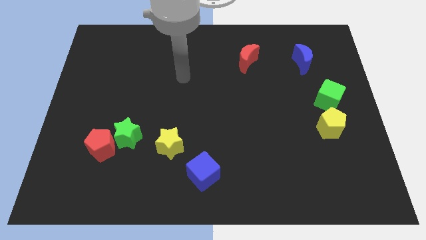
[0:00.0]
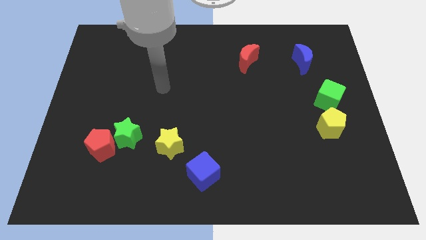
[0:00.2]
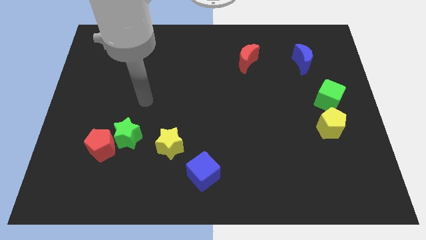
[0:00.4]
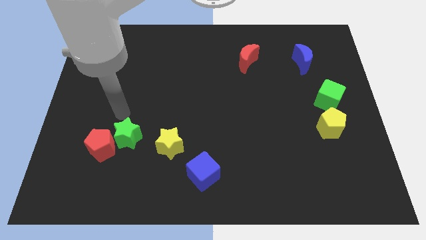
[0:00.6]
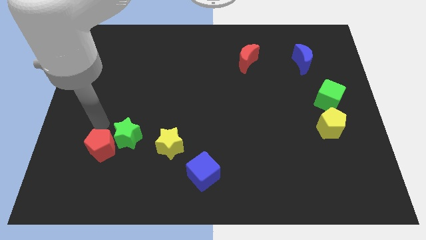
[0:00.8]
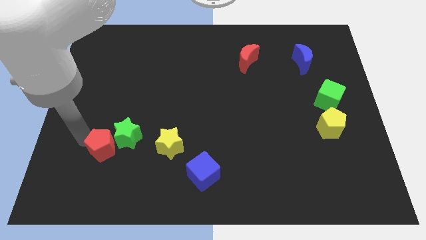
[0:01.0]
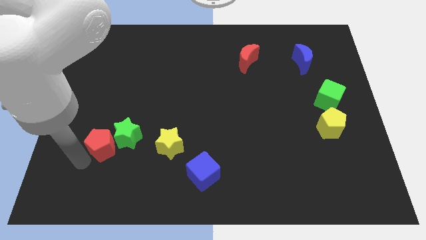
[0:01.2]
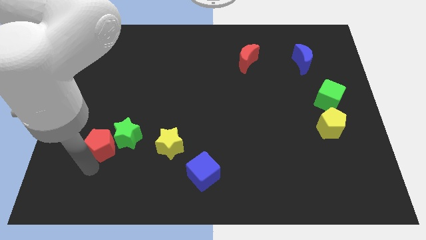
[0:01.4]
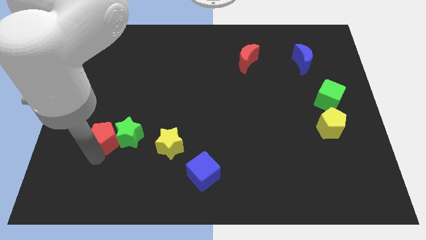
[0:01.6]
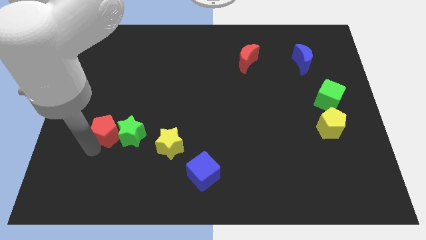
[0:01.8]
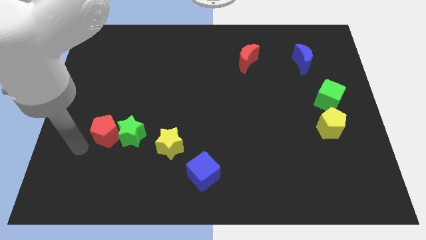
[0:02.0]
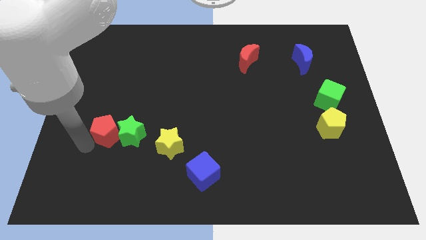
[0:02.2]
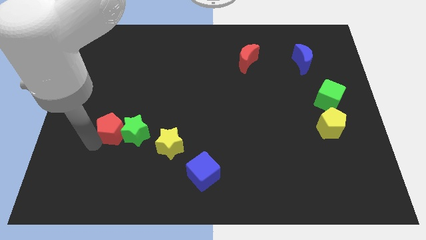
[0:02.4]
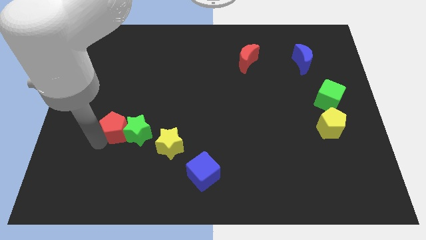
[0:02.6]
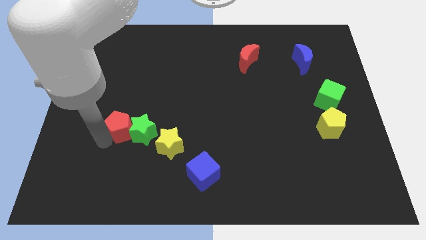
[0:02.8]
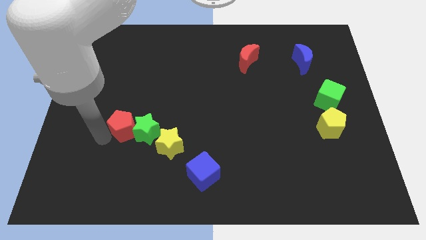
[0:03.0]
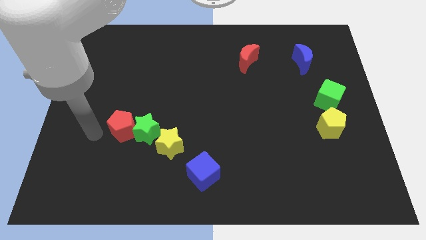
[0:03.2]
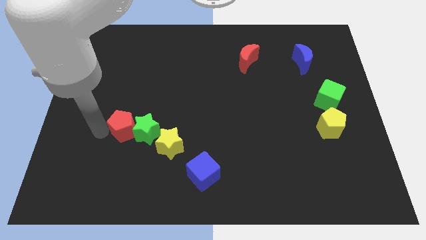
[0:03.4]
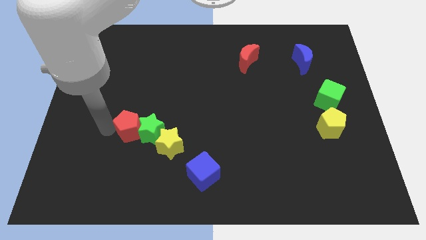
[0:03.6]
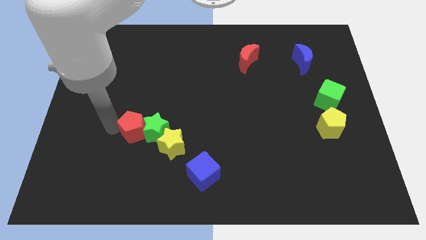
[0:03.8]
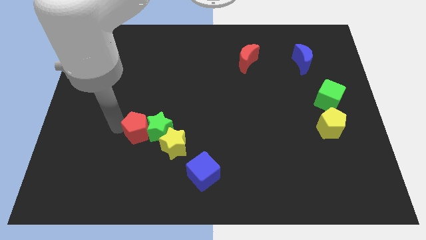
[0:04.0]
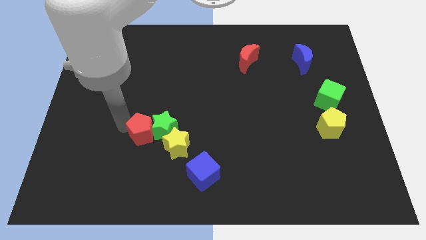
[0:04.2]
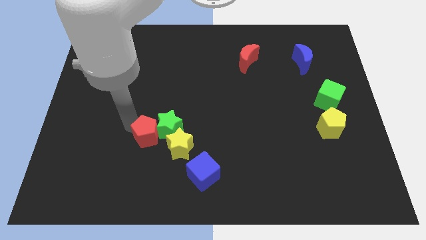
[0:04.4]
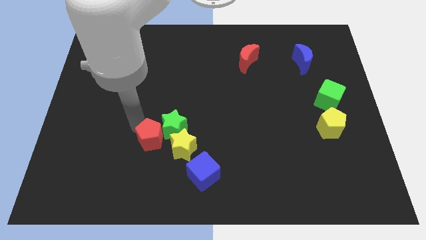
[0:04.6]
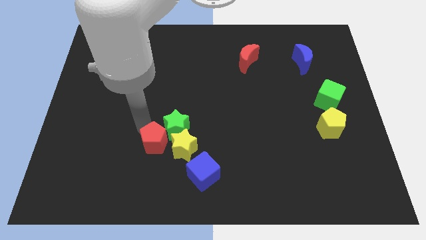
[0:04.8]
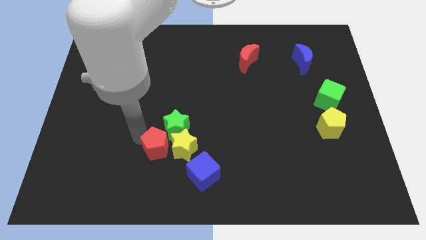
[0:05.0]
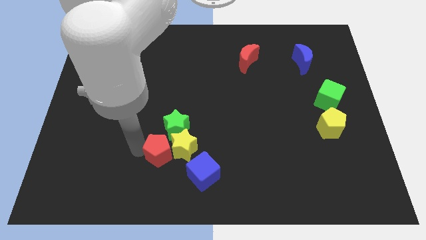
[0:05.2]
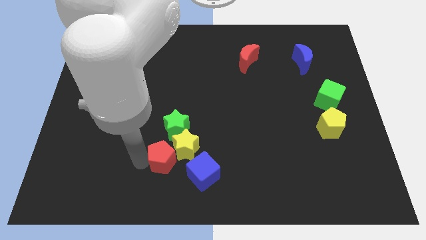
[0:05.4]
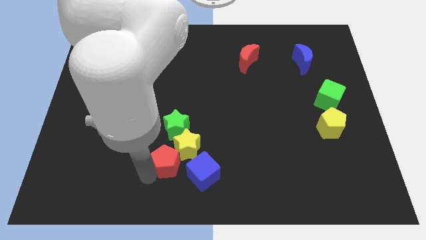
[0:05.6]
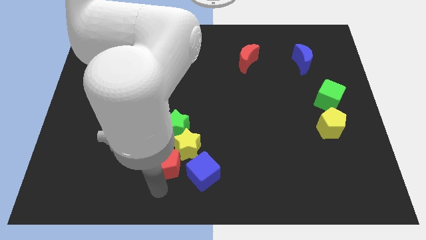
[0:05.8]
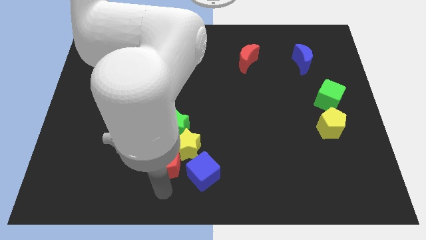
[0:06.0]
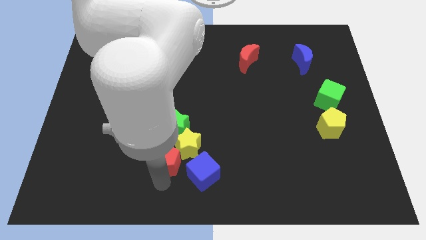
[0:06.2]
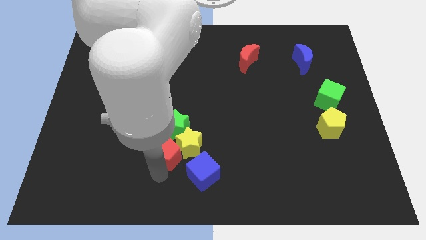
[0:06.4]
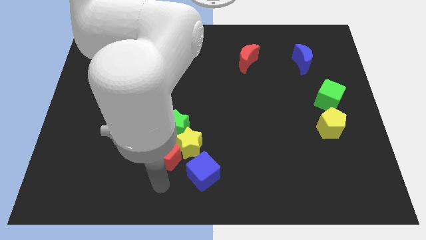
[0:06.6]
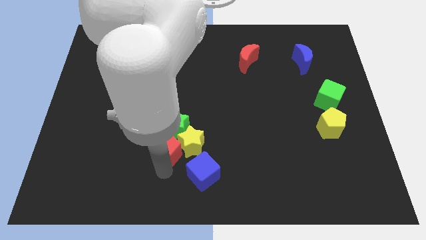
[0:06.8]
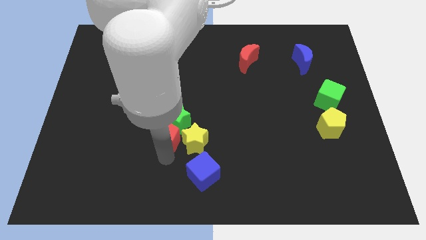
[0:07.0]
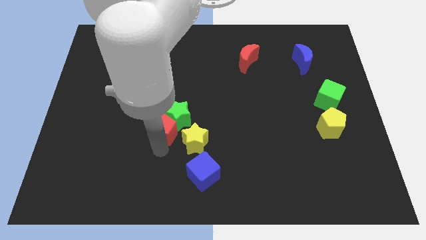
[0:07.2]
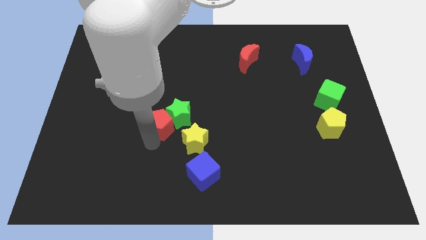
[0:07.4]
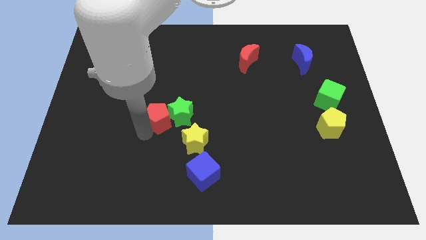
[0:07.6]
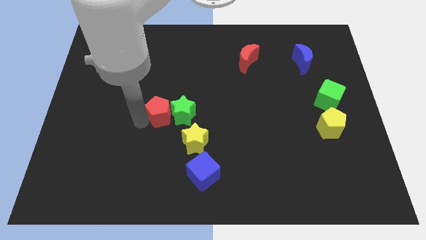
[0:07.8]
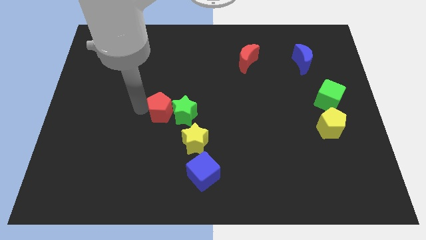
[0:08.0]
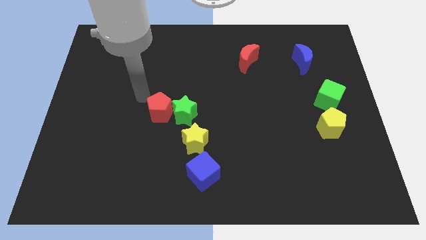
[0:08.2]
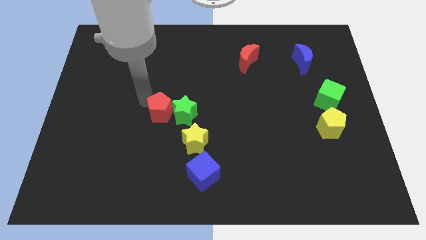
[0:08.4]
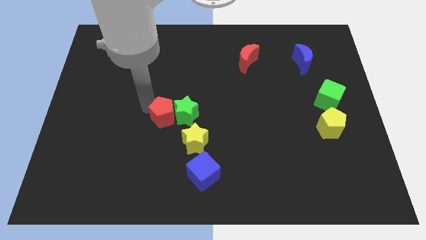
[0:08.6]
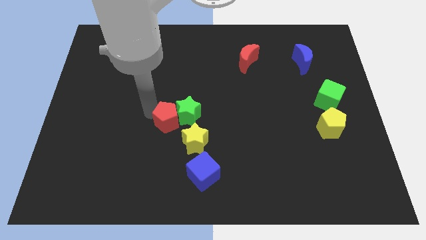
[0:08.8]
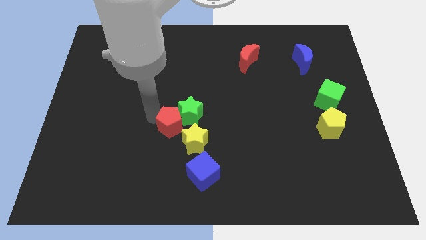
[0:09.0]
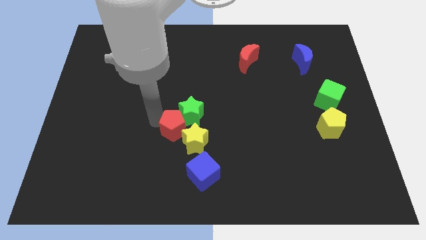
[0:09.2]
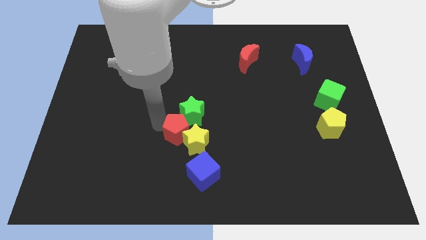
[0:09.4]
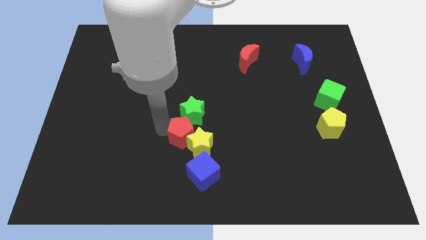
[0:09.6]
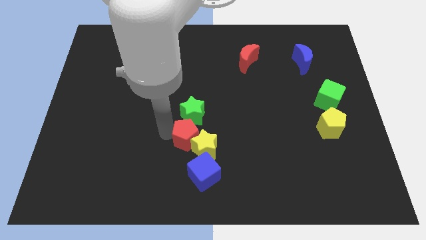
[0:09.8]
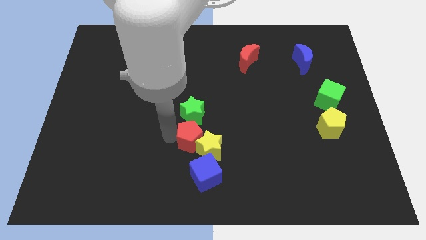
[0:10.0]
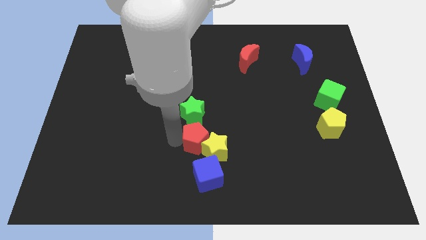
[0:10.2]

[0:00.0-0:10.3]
push the red pentagon to the right

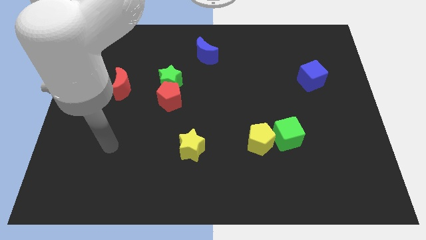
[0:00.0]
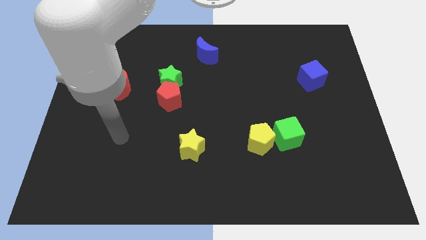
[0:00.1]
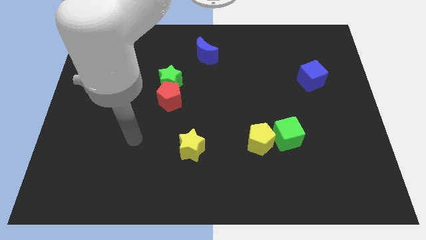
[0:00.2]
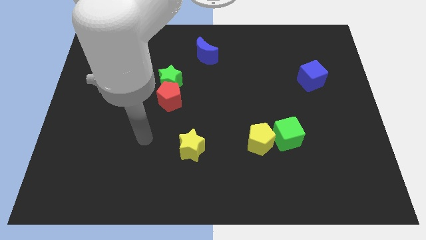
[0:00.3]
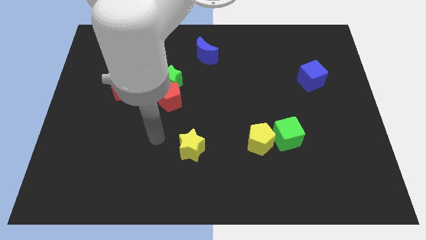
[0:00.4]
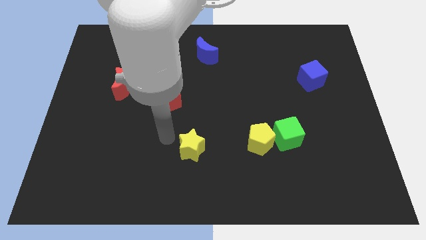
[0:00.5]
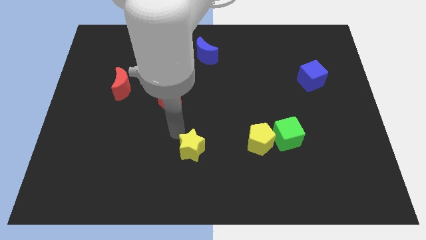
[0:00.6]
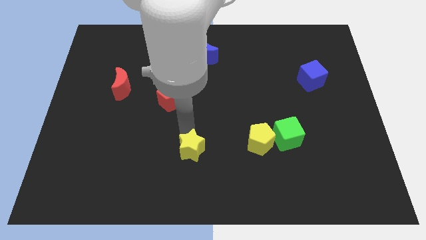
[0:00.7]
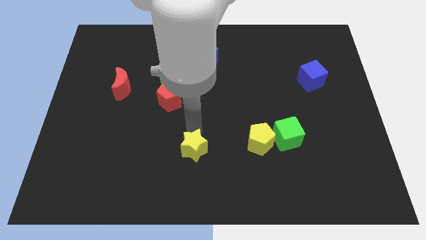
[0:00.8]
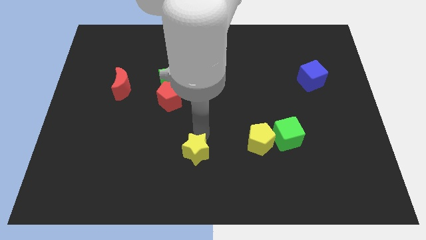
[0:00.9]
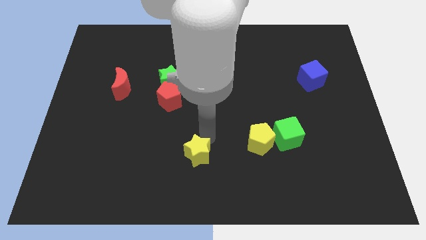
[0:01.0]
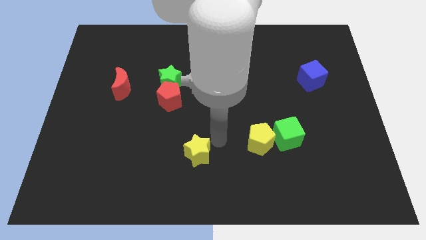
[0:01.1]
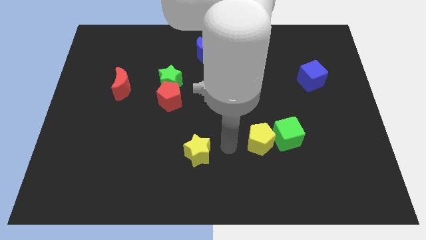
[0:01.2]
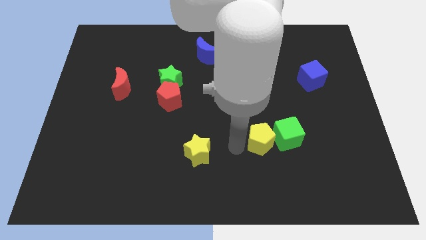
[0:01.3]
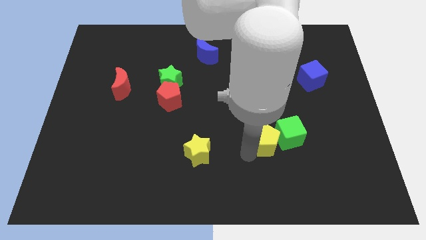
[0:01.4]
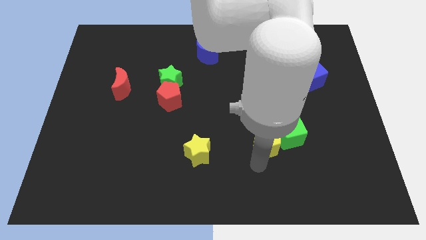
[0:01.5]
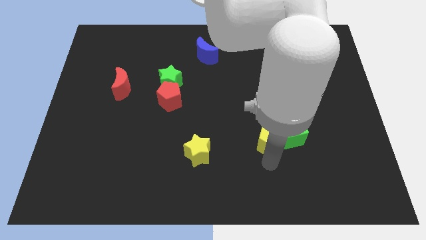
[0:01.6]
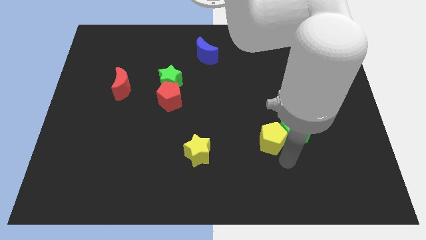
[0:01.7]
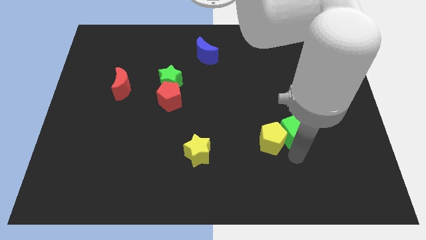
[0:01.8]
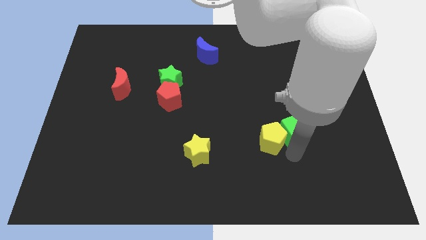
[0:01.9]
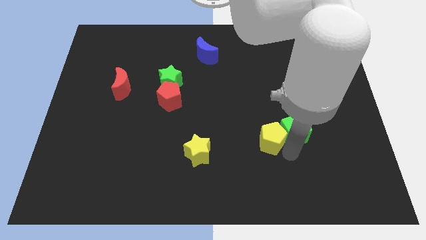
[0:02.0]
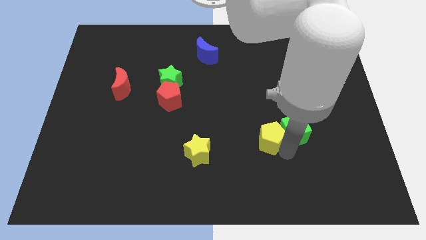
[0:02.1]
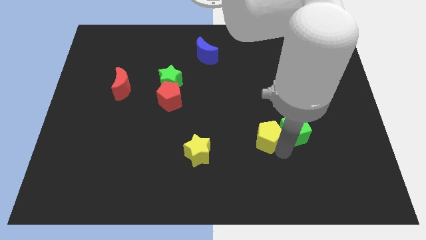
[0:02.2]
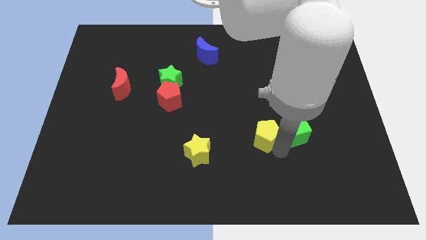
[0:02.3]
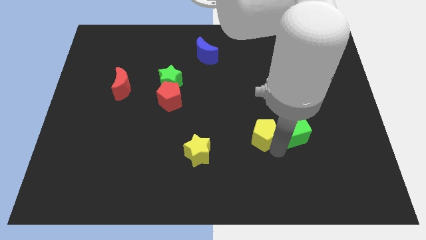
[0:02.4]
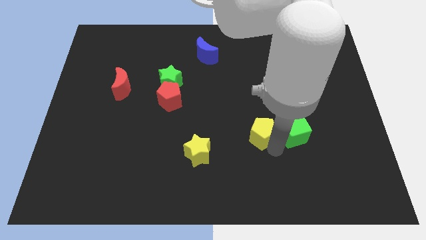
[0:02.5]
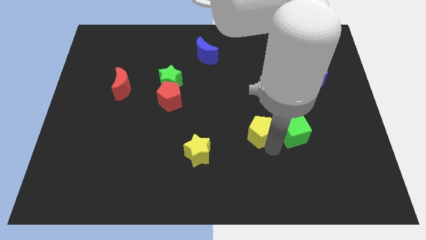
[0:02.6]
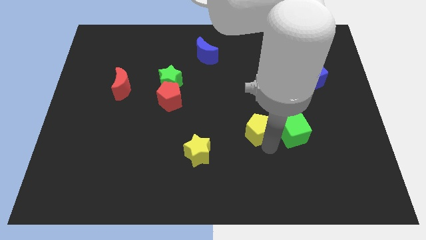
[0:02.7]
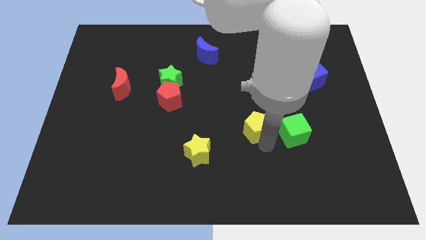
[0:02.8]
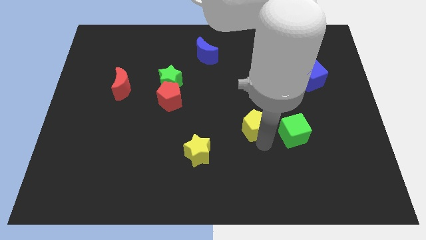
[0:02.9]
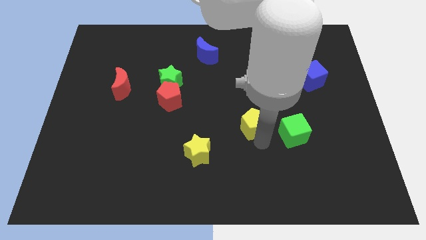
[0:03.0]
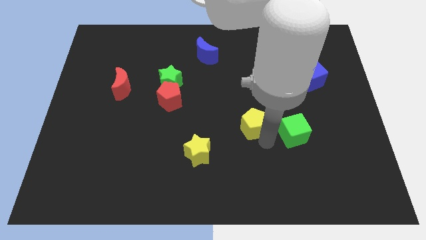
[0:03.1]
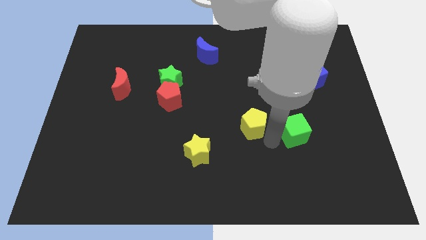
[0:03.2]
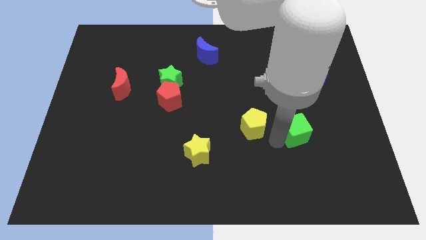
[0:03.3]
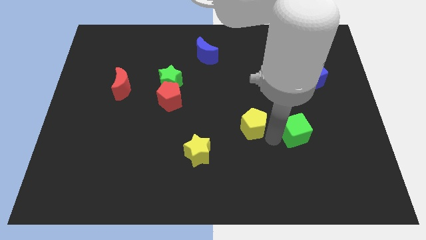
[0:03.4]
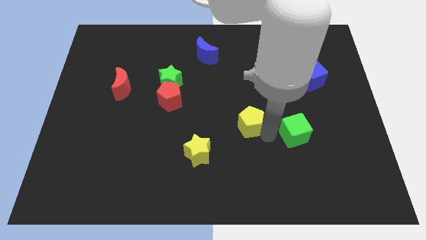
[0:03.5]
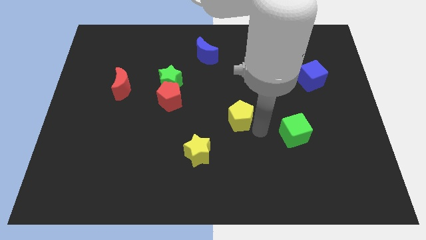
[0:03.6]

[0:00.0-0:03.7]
slightly move the yellow pentagon up and to the left
